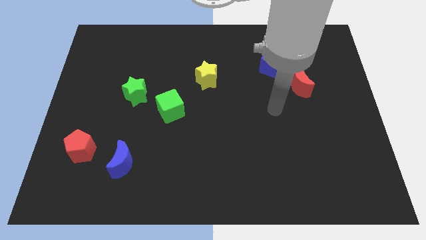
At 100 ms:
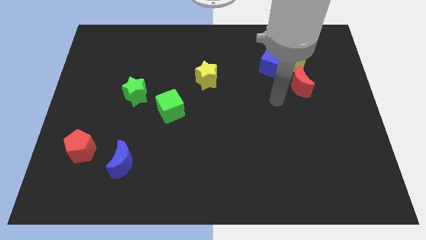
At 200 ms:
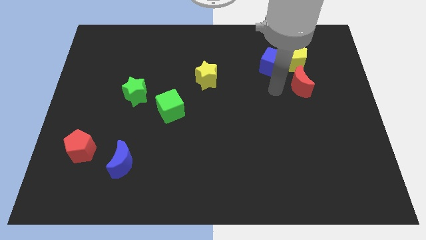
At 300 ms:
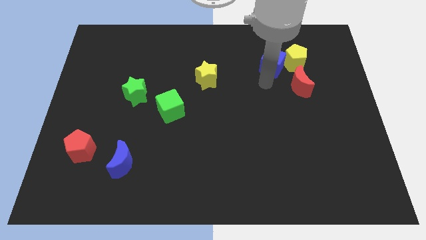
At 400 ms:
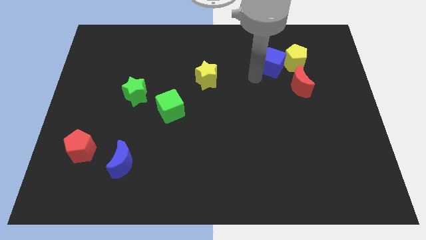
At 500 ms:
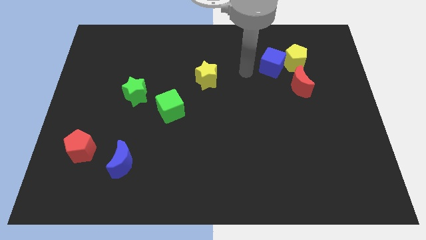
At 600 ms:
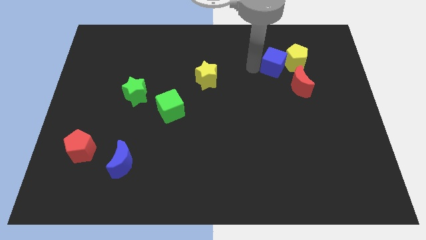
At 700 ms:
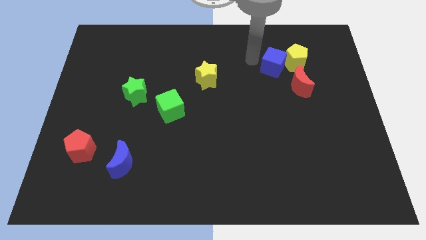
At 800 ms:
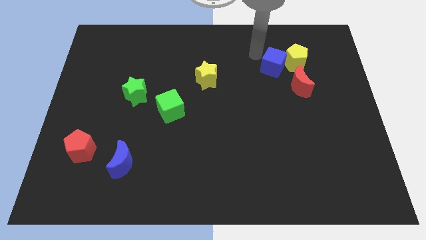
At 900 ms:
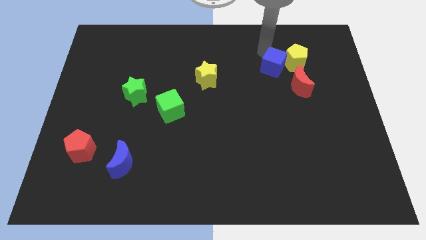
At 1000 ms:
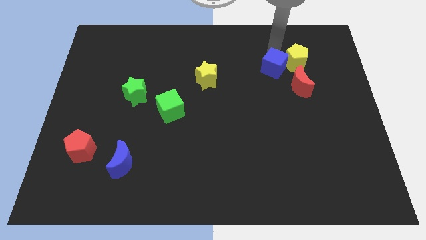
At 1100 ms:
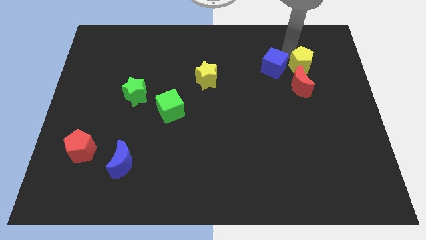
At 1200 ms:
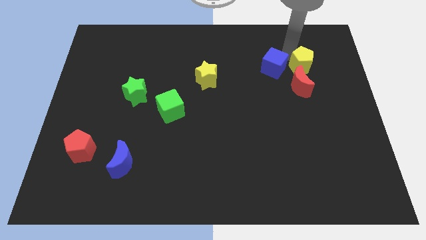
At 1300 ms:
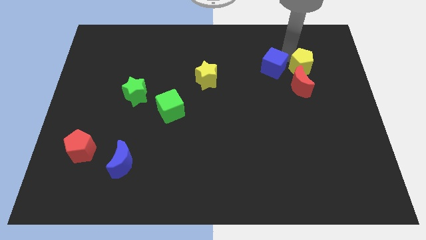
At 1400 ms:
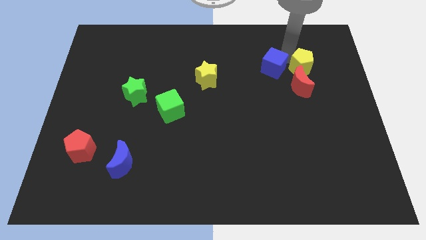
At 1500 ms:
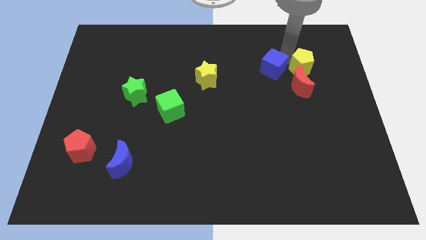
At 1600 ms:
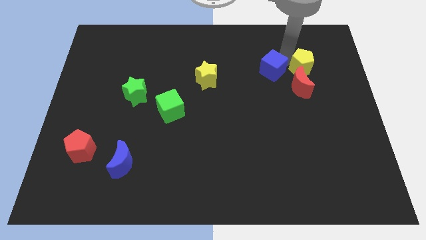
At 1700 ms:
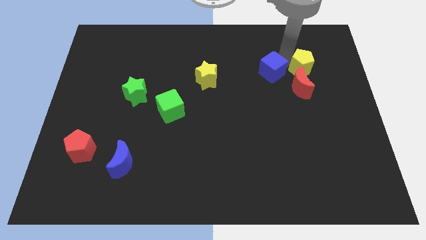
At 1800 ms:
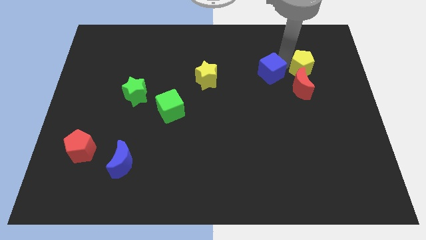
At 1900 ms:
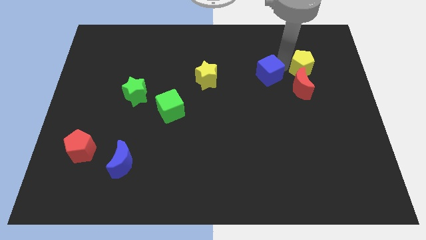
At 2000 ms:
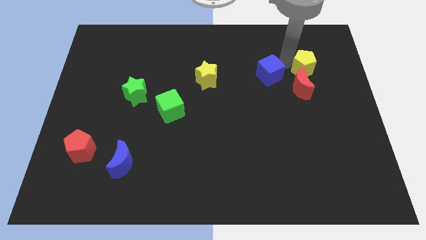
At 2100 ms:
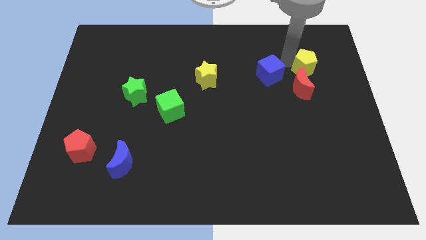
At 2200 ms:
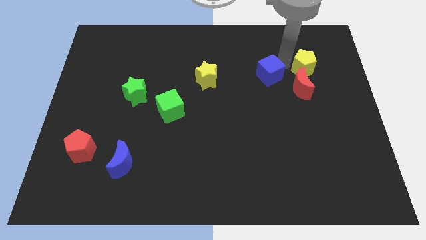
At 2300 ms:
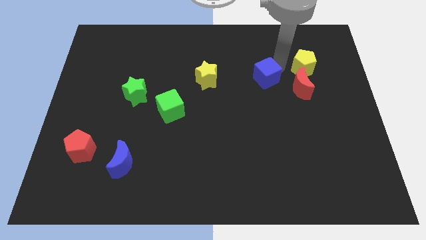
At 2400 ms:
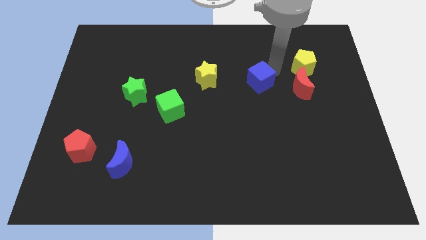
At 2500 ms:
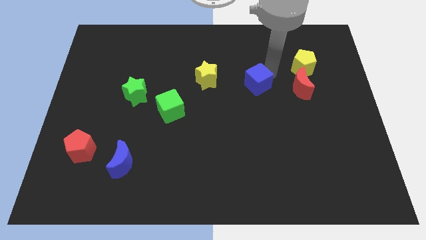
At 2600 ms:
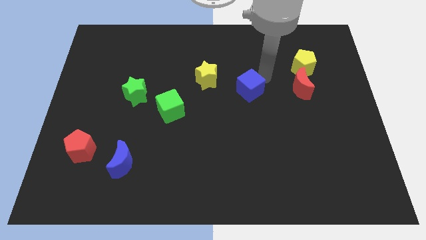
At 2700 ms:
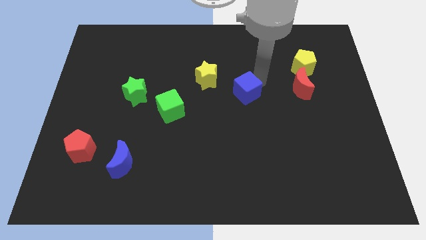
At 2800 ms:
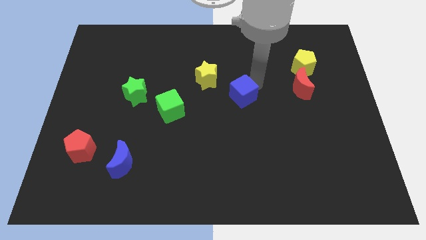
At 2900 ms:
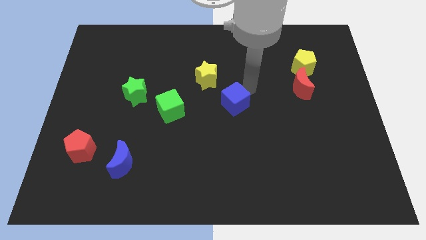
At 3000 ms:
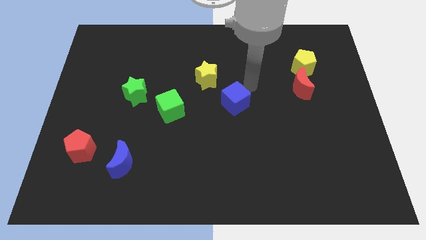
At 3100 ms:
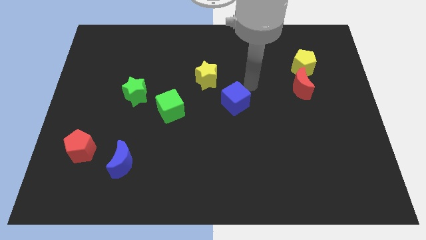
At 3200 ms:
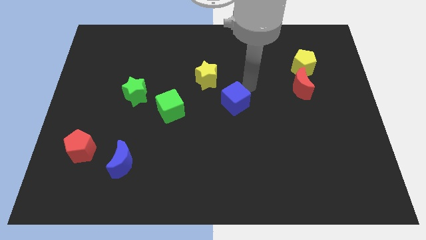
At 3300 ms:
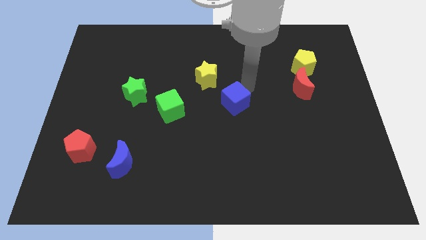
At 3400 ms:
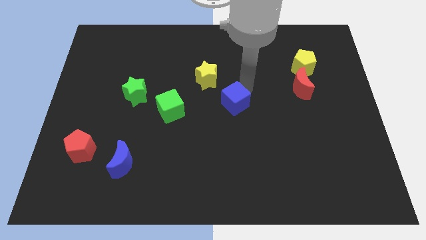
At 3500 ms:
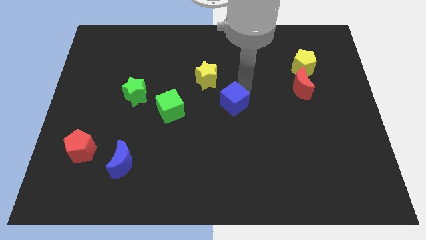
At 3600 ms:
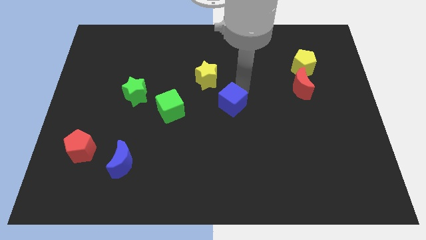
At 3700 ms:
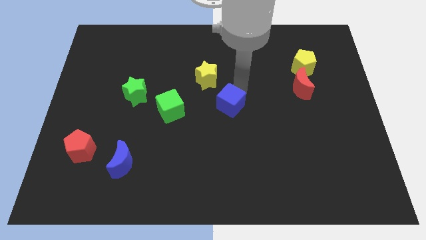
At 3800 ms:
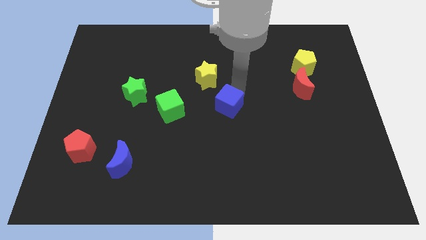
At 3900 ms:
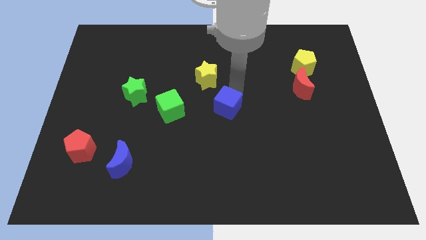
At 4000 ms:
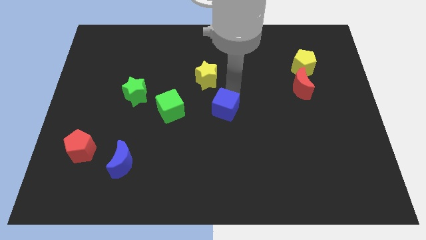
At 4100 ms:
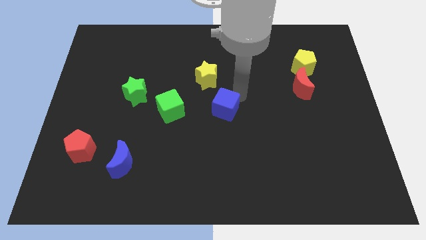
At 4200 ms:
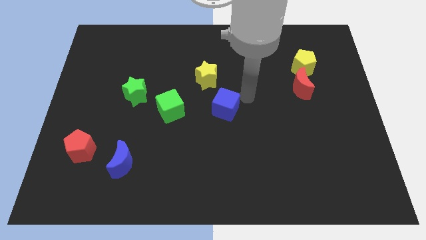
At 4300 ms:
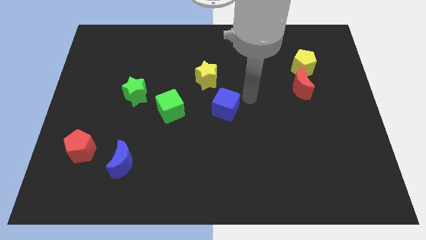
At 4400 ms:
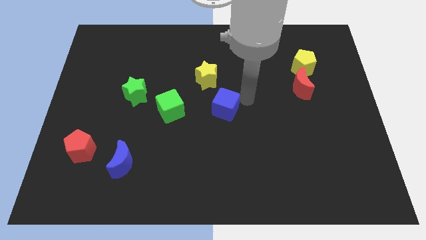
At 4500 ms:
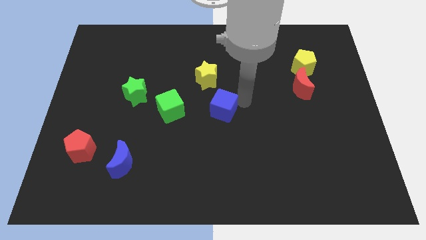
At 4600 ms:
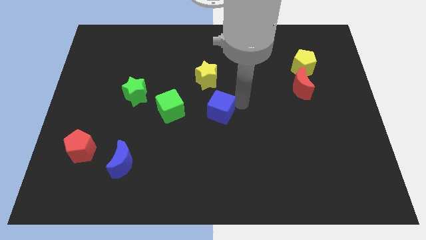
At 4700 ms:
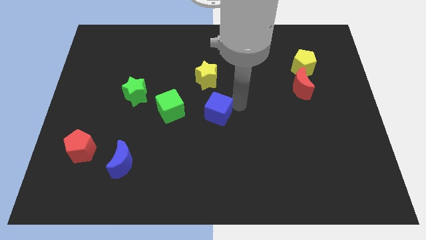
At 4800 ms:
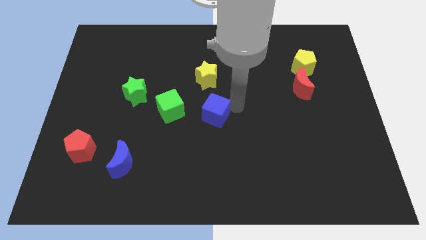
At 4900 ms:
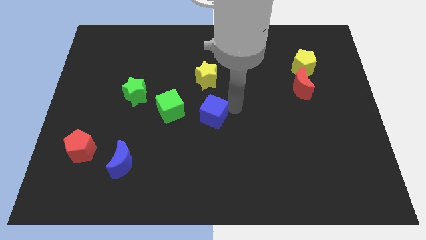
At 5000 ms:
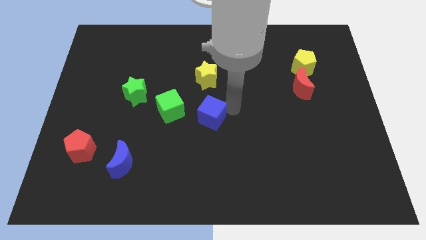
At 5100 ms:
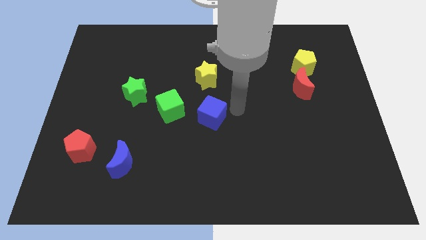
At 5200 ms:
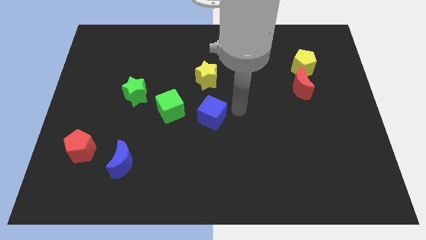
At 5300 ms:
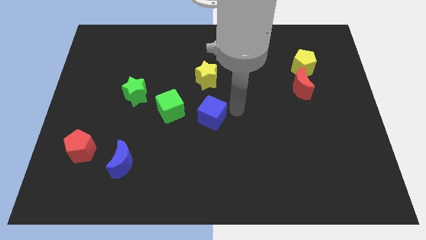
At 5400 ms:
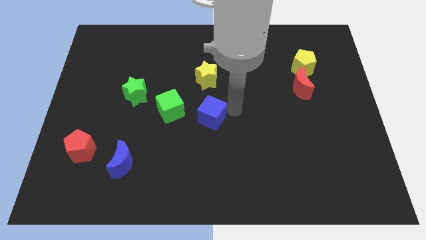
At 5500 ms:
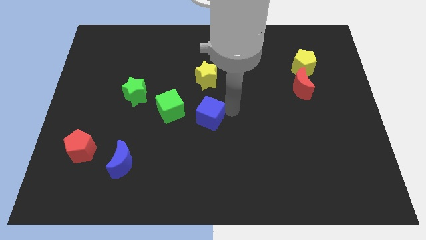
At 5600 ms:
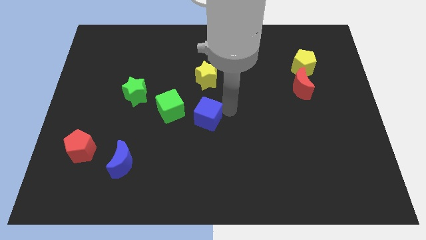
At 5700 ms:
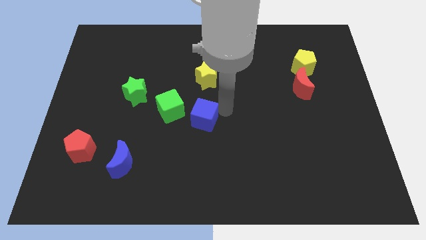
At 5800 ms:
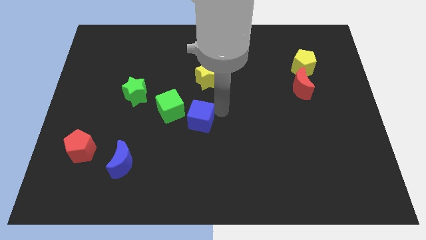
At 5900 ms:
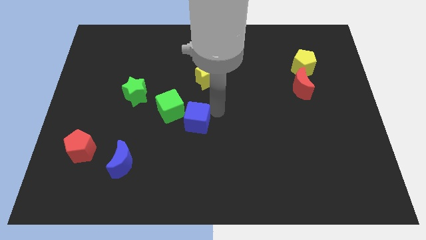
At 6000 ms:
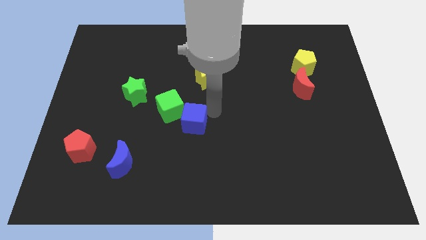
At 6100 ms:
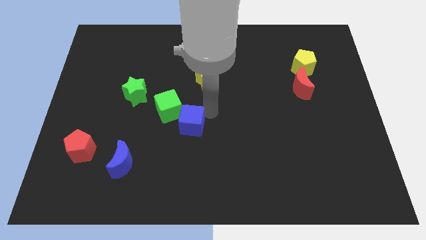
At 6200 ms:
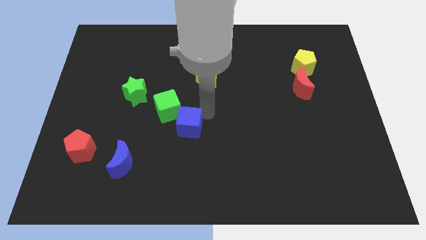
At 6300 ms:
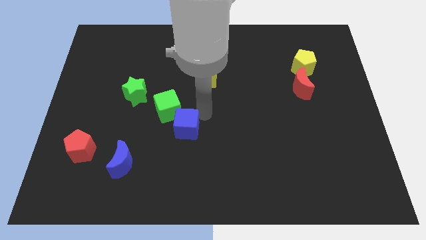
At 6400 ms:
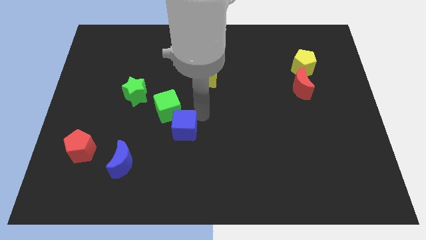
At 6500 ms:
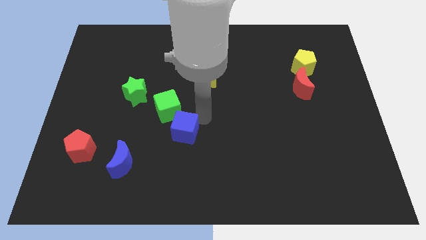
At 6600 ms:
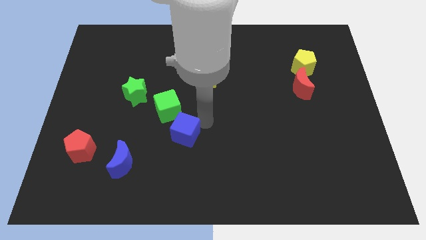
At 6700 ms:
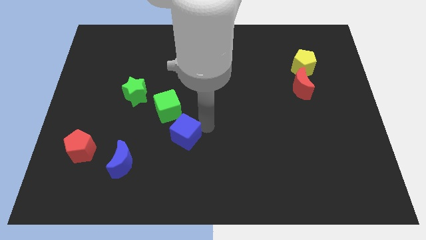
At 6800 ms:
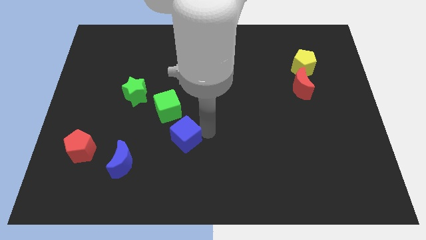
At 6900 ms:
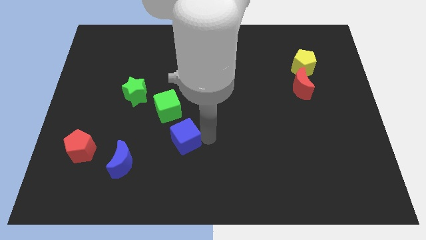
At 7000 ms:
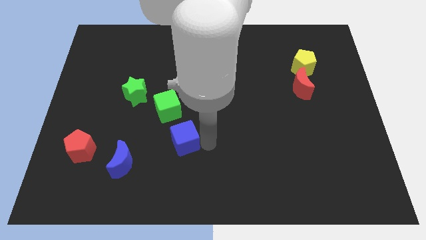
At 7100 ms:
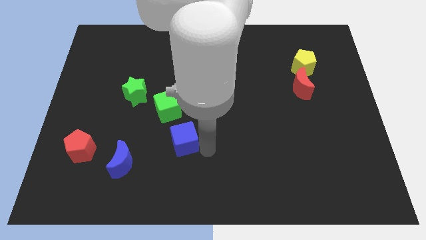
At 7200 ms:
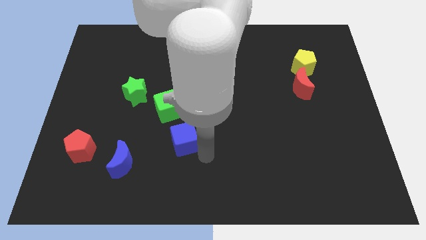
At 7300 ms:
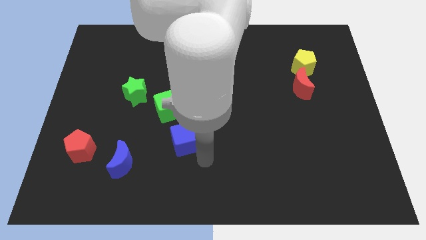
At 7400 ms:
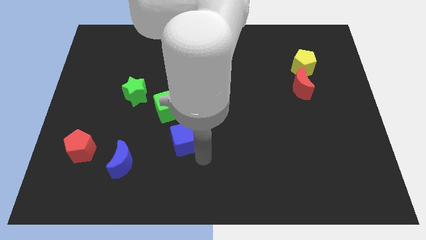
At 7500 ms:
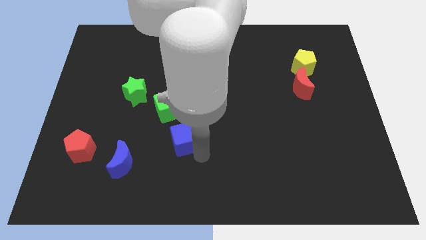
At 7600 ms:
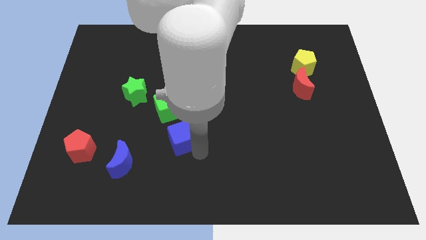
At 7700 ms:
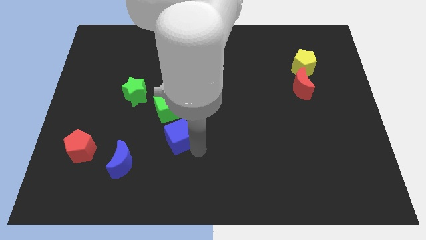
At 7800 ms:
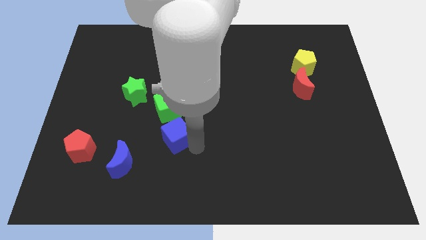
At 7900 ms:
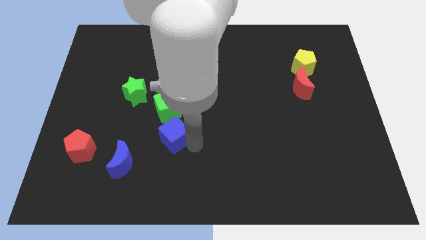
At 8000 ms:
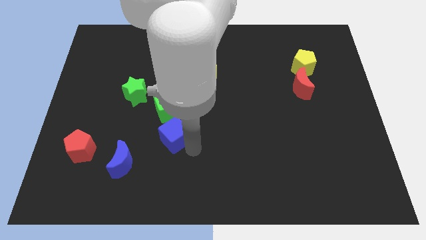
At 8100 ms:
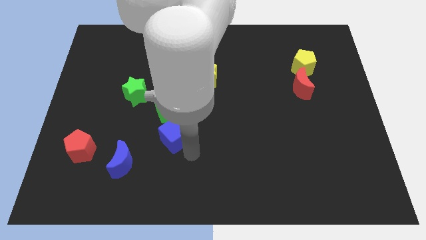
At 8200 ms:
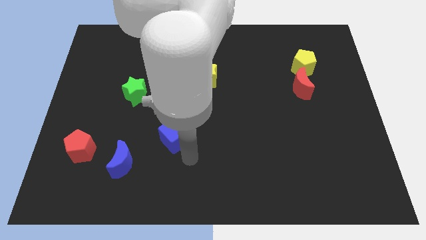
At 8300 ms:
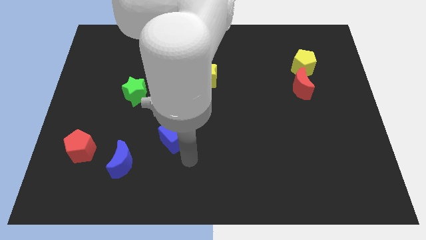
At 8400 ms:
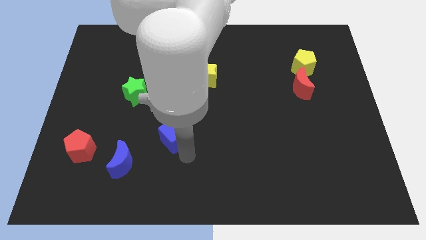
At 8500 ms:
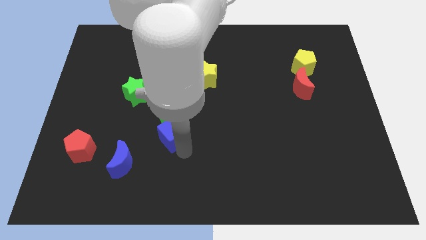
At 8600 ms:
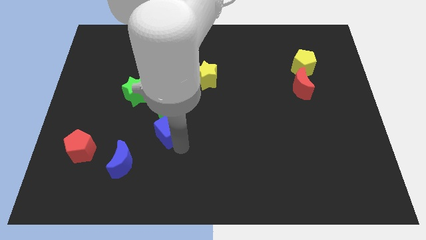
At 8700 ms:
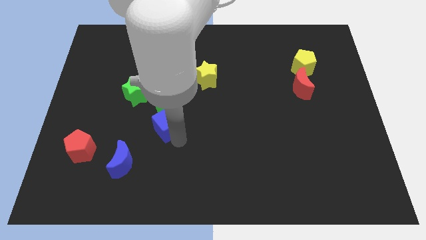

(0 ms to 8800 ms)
put the blue cube diagonally down and to the left of the green cube
